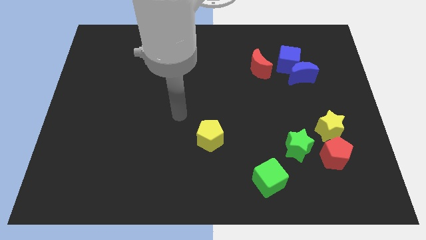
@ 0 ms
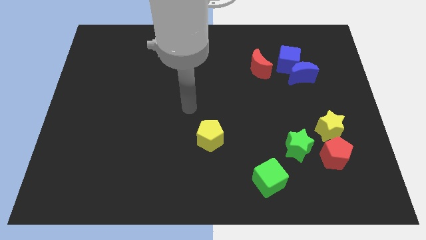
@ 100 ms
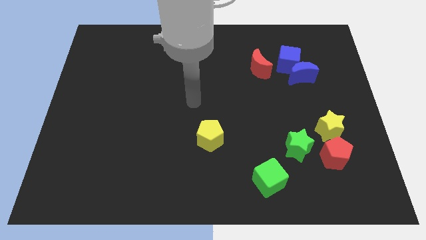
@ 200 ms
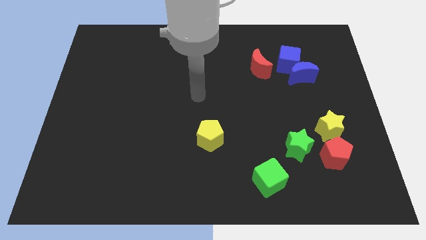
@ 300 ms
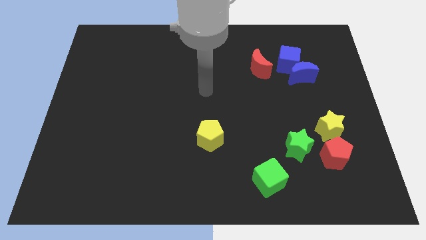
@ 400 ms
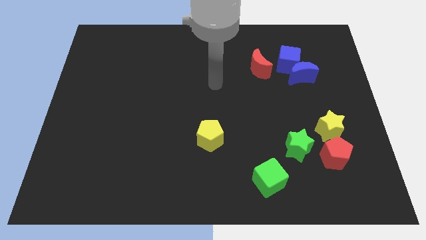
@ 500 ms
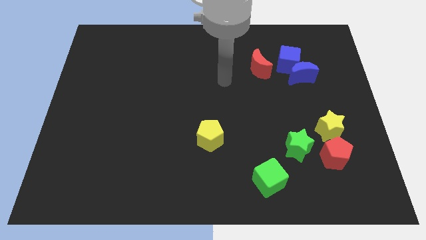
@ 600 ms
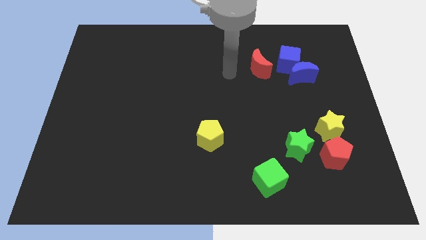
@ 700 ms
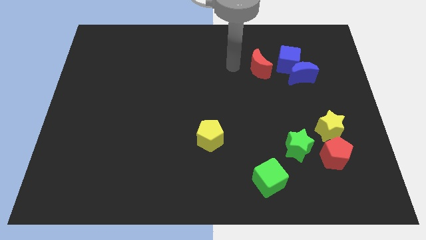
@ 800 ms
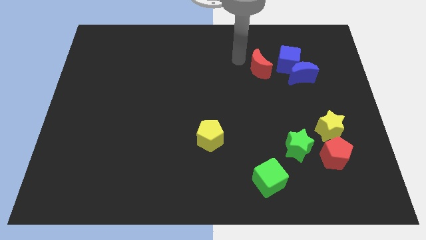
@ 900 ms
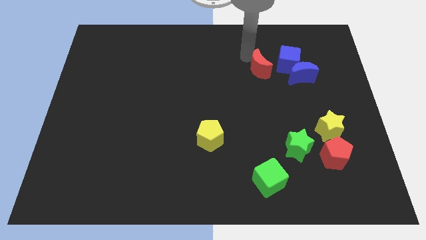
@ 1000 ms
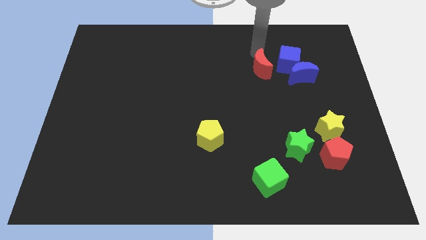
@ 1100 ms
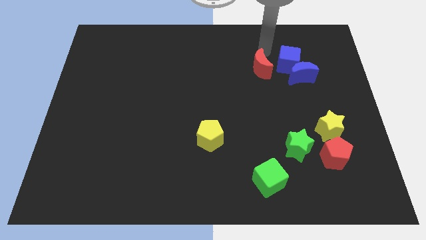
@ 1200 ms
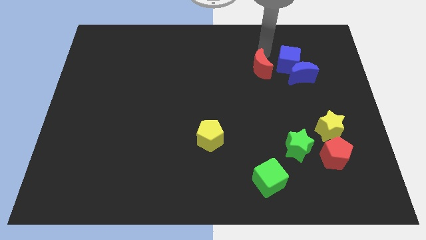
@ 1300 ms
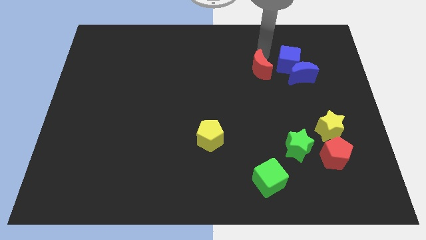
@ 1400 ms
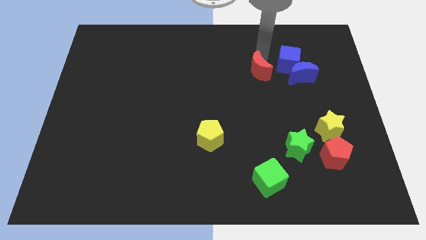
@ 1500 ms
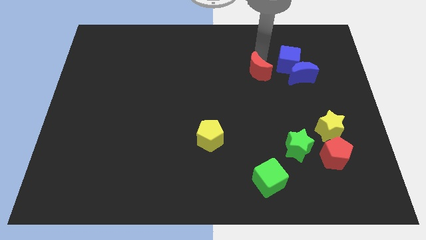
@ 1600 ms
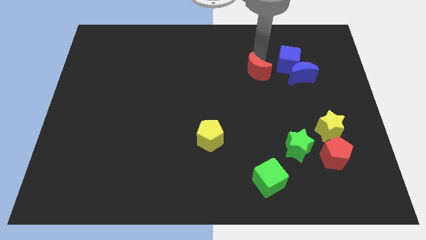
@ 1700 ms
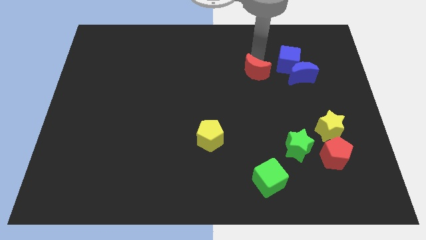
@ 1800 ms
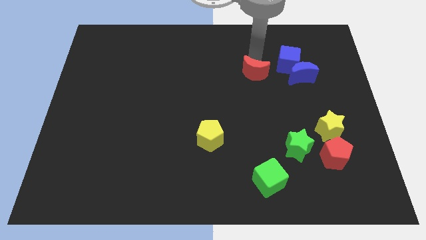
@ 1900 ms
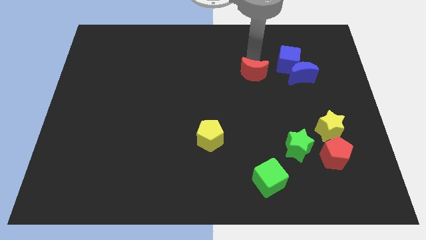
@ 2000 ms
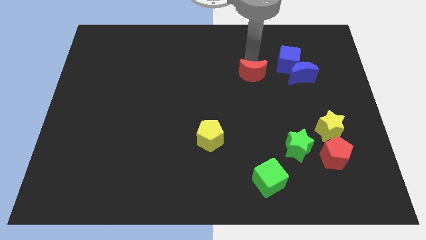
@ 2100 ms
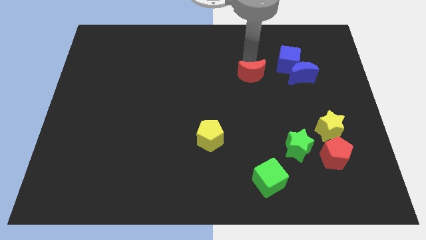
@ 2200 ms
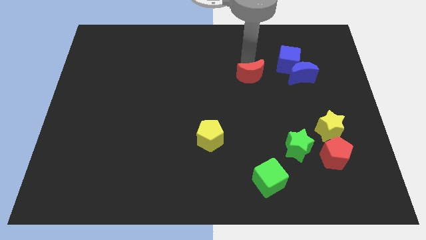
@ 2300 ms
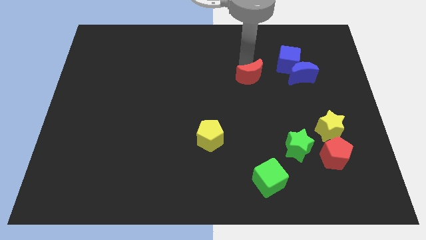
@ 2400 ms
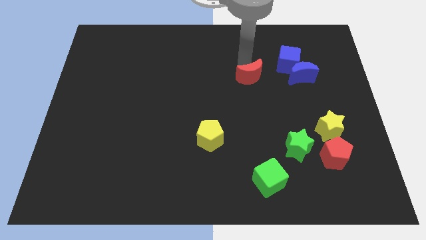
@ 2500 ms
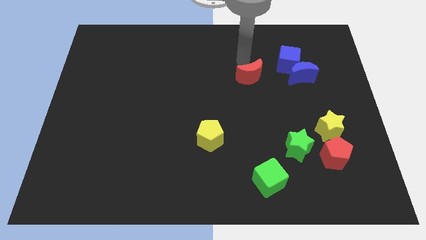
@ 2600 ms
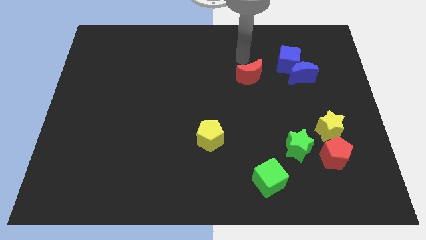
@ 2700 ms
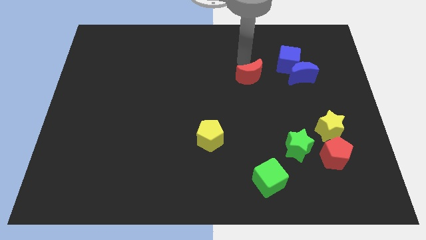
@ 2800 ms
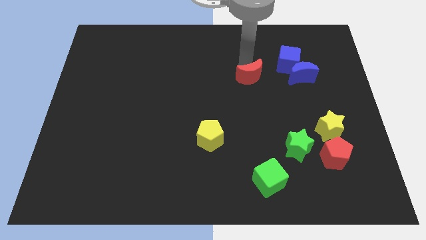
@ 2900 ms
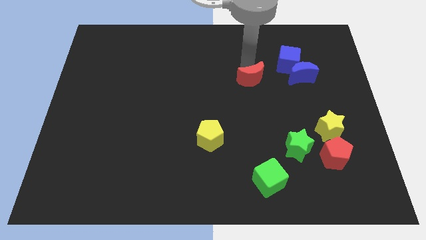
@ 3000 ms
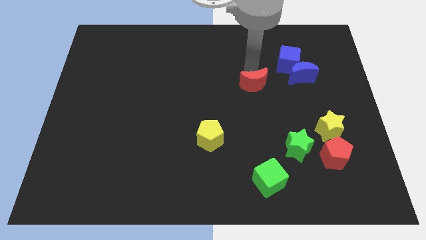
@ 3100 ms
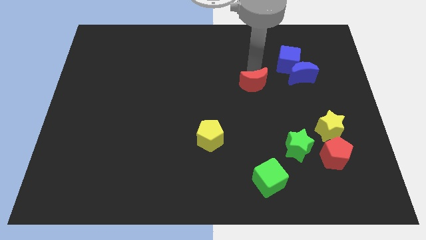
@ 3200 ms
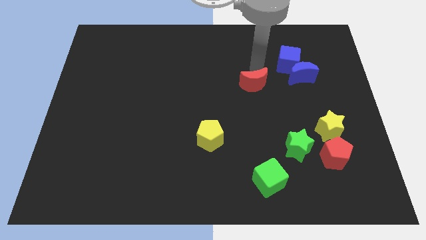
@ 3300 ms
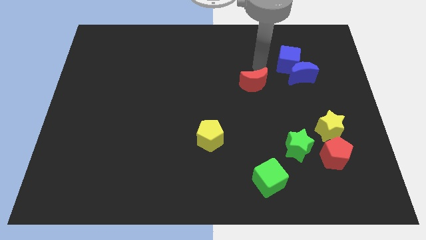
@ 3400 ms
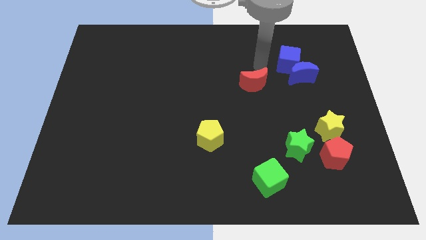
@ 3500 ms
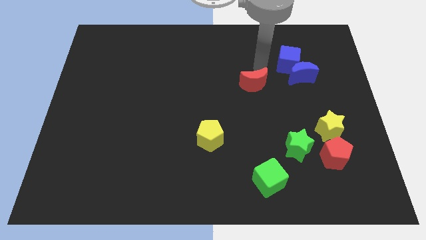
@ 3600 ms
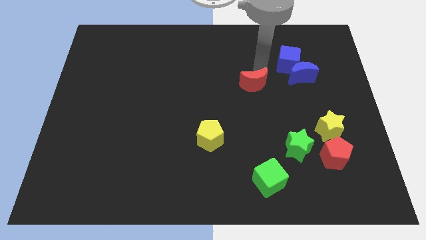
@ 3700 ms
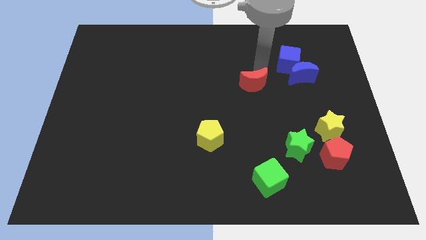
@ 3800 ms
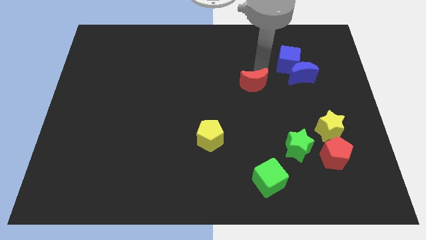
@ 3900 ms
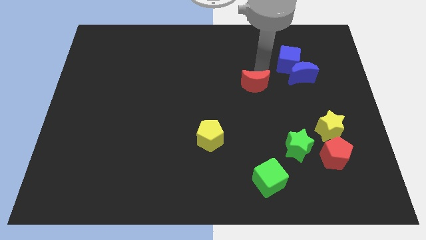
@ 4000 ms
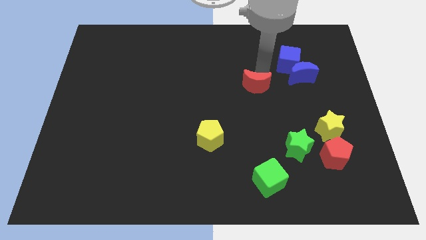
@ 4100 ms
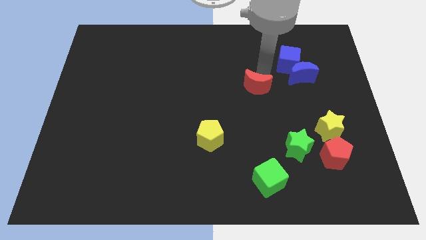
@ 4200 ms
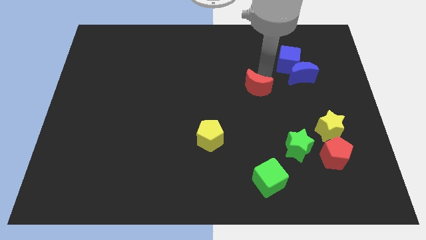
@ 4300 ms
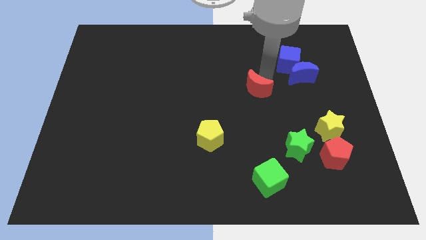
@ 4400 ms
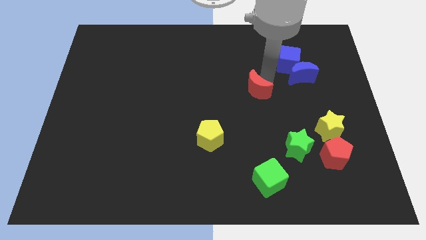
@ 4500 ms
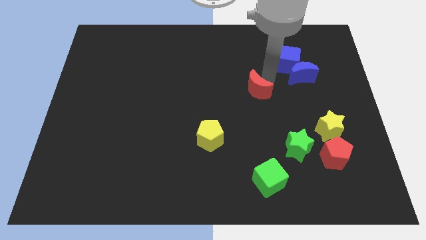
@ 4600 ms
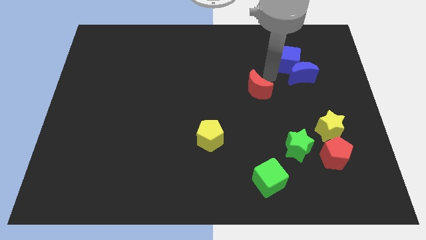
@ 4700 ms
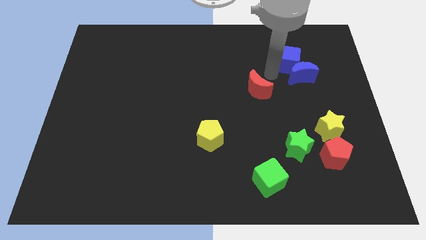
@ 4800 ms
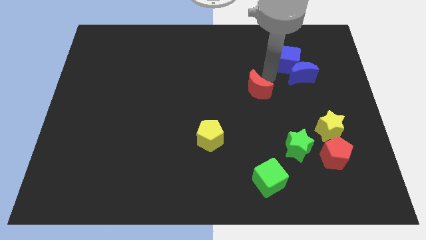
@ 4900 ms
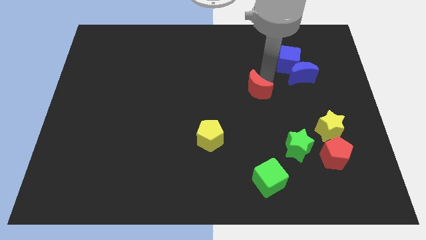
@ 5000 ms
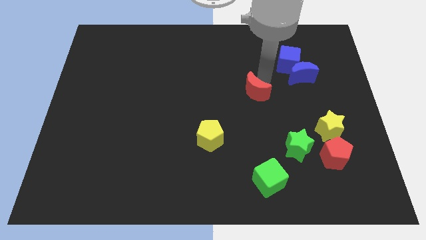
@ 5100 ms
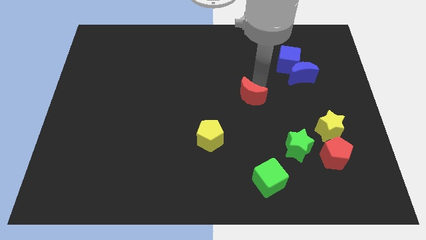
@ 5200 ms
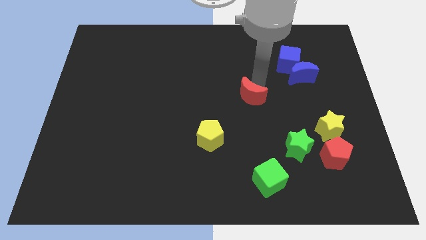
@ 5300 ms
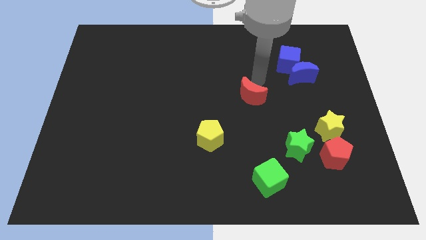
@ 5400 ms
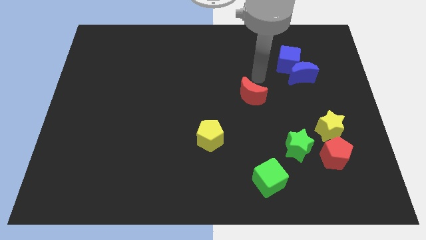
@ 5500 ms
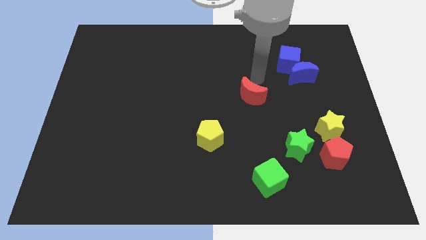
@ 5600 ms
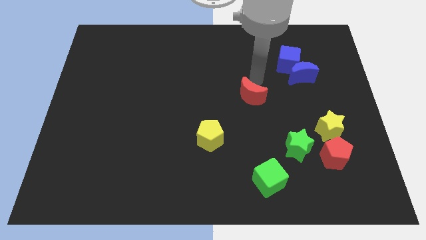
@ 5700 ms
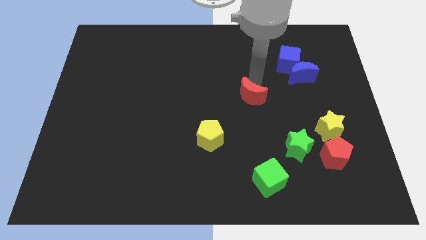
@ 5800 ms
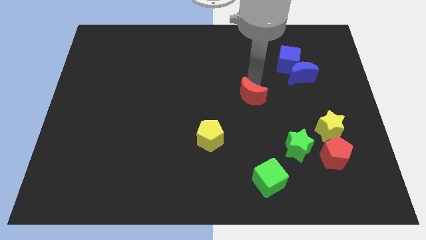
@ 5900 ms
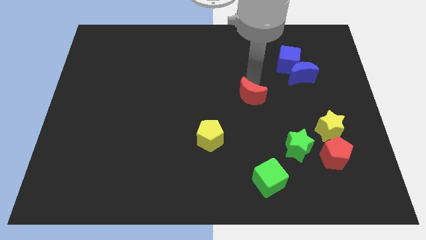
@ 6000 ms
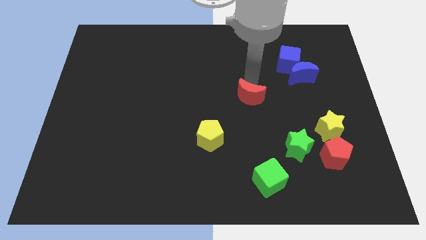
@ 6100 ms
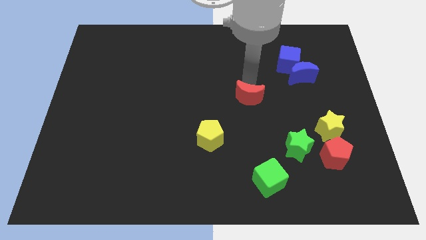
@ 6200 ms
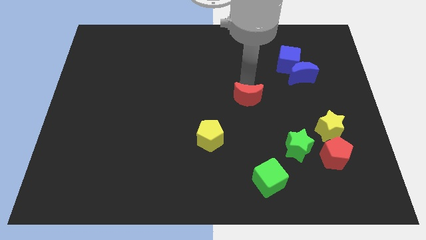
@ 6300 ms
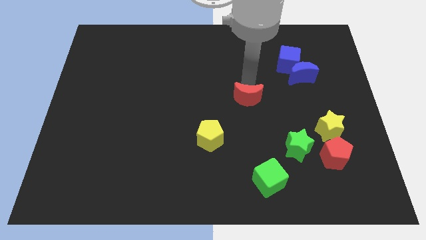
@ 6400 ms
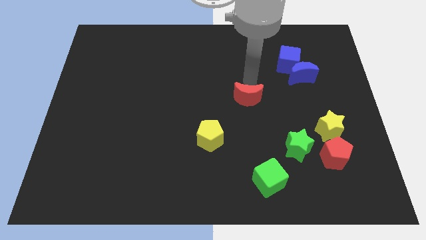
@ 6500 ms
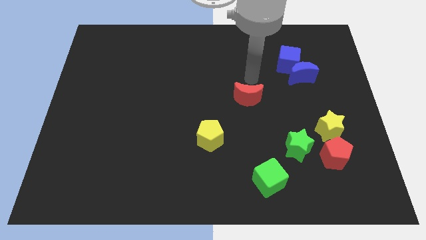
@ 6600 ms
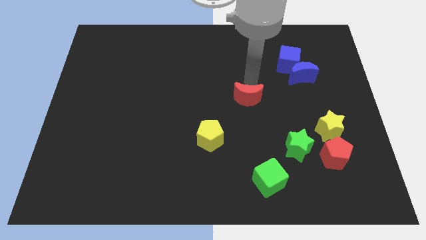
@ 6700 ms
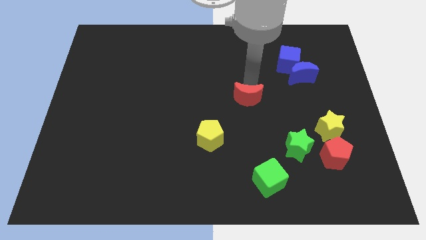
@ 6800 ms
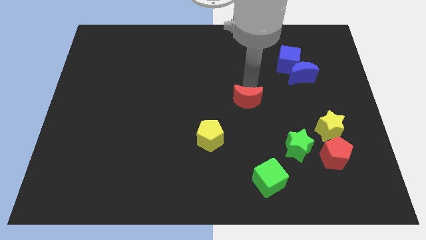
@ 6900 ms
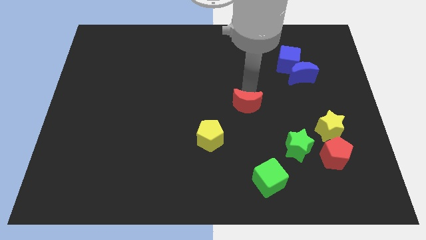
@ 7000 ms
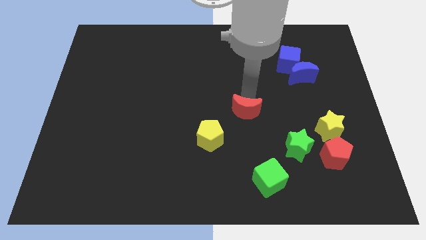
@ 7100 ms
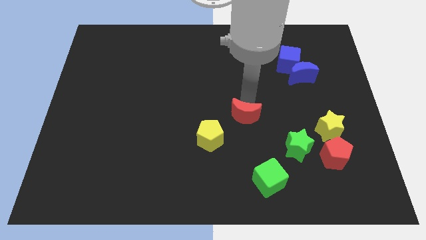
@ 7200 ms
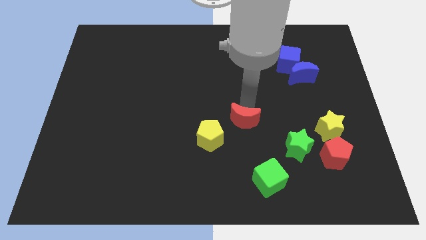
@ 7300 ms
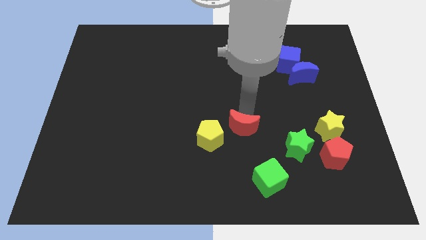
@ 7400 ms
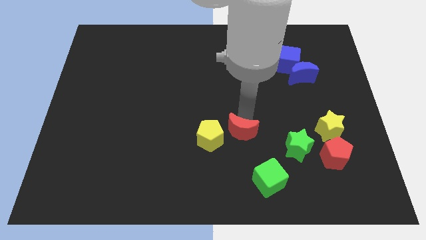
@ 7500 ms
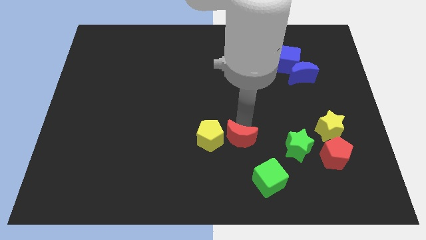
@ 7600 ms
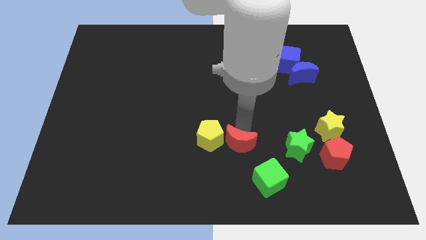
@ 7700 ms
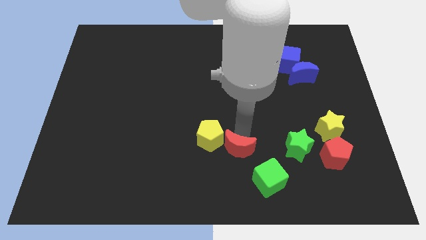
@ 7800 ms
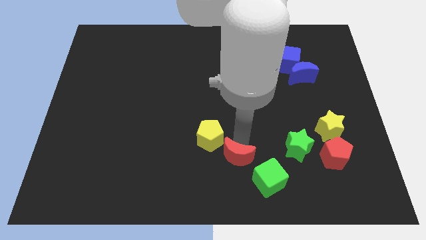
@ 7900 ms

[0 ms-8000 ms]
put the red moon to the bottom
